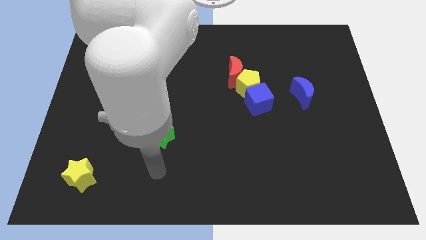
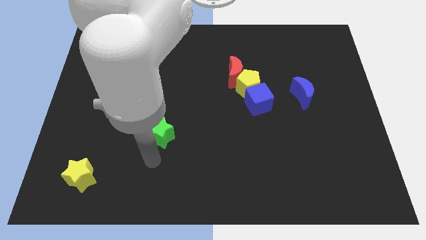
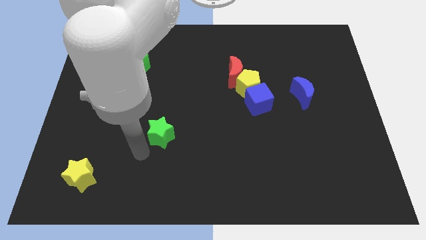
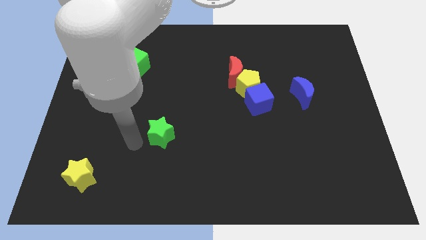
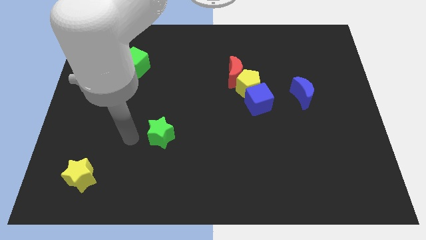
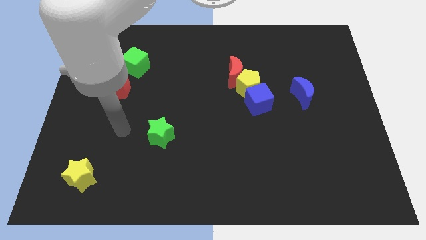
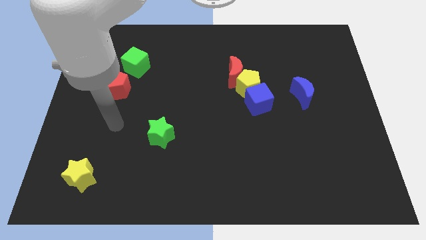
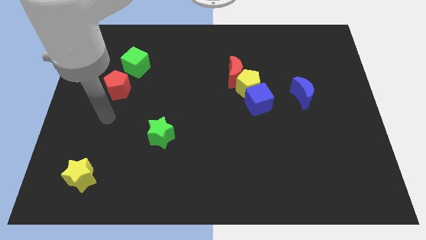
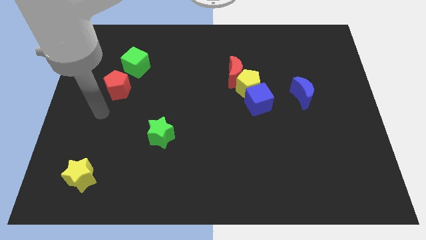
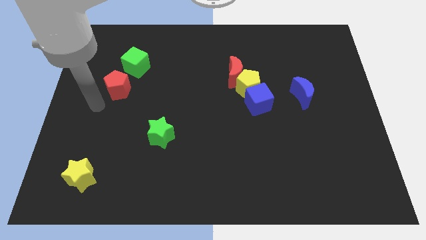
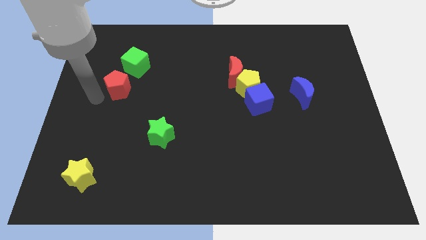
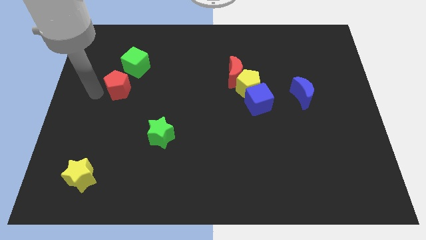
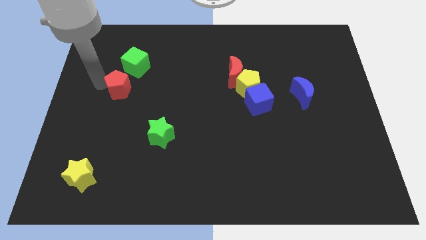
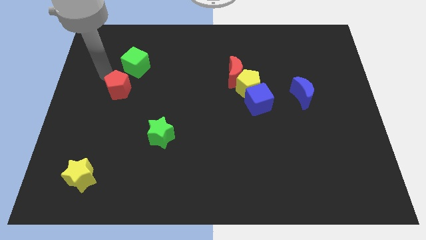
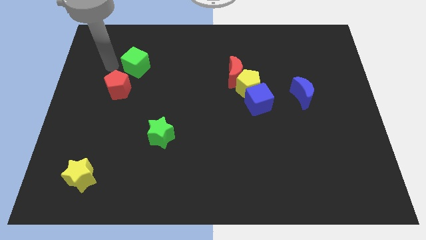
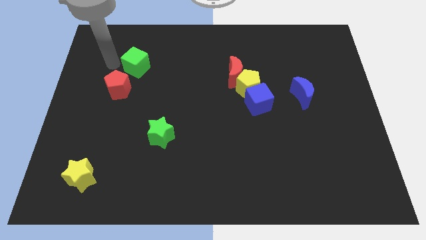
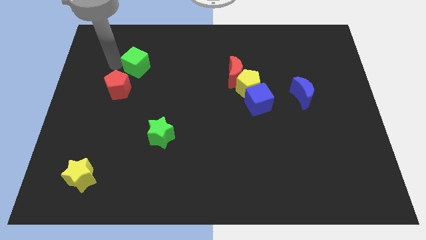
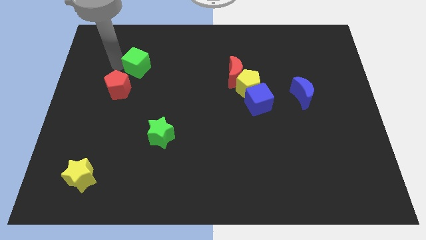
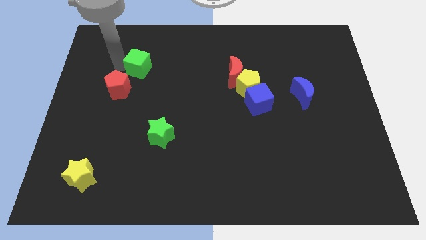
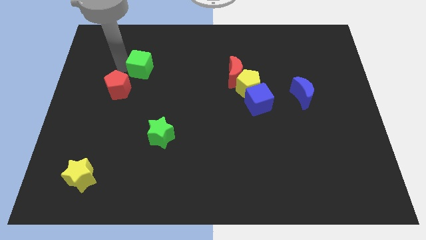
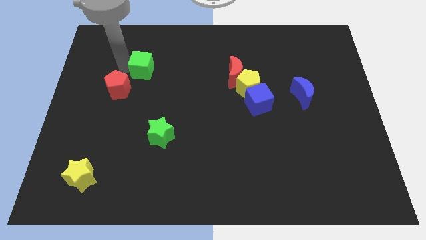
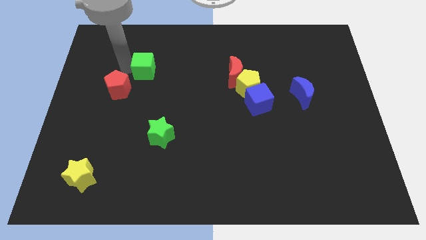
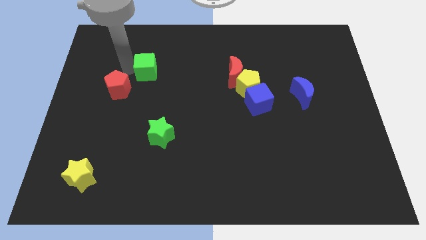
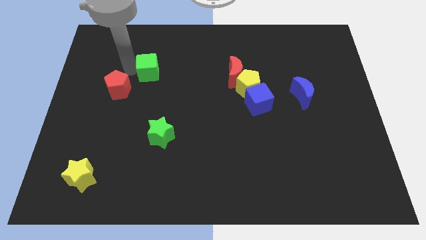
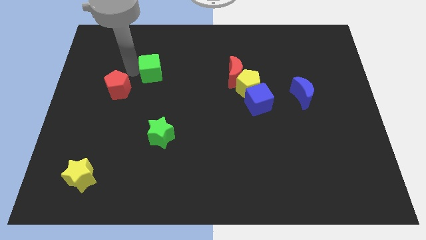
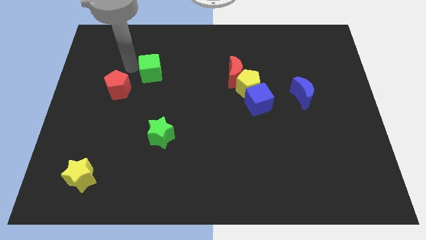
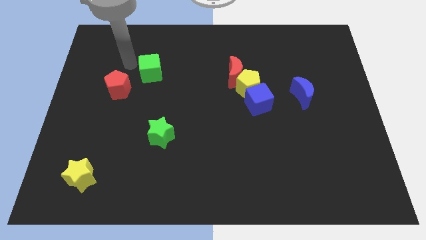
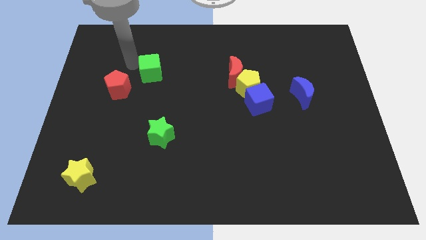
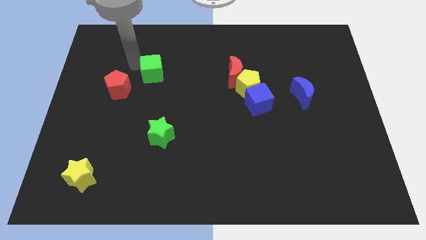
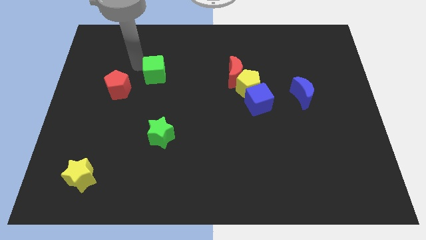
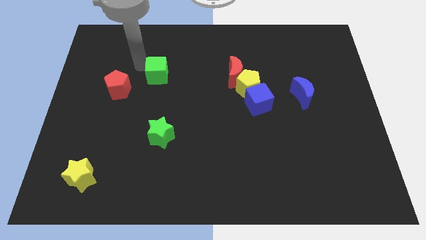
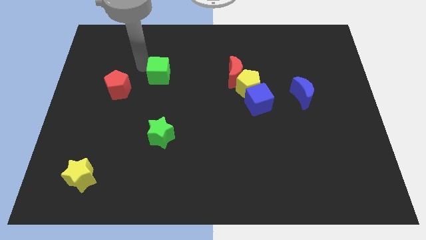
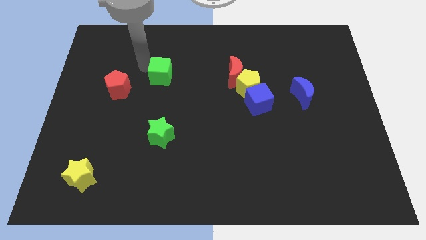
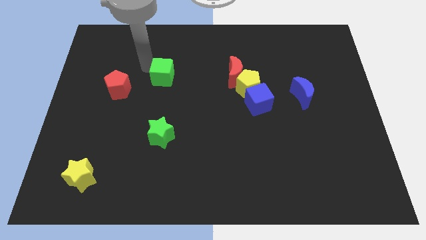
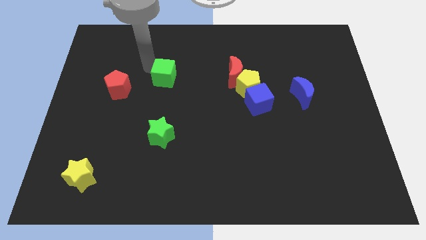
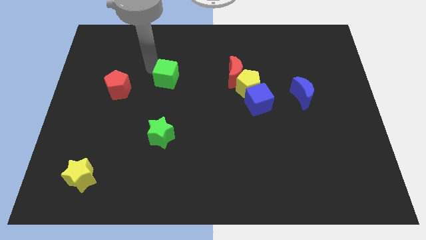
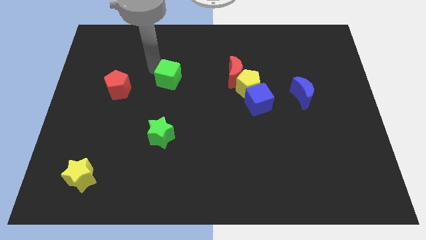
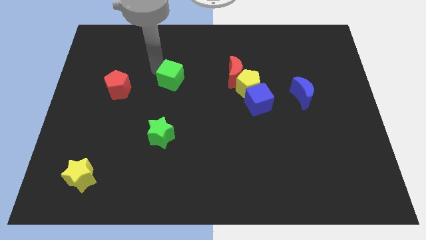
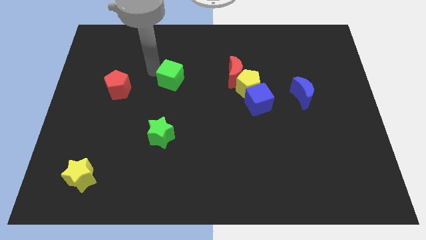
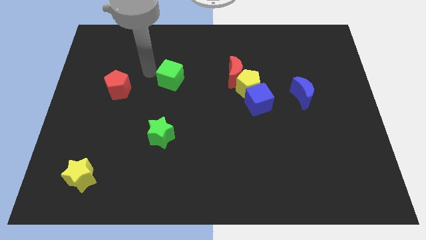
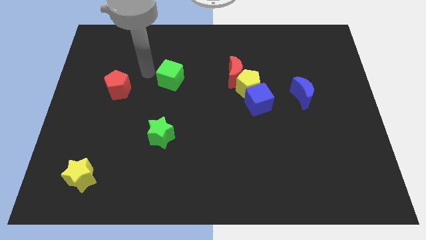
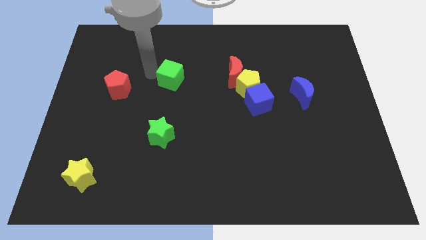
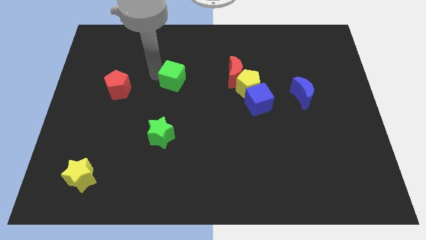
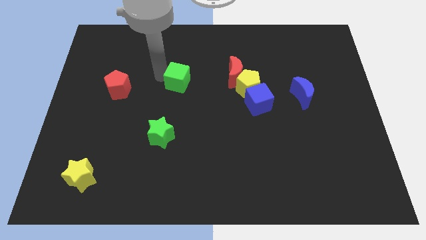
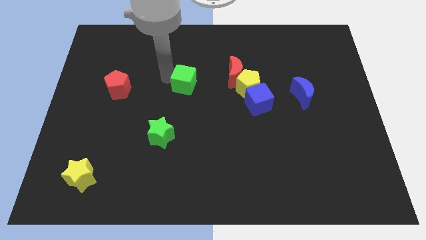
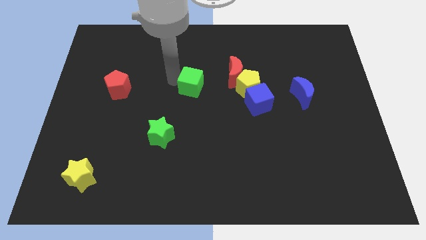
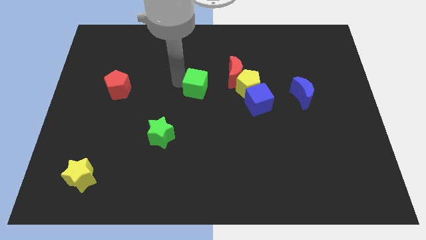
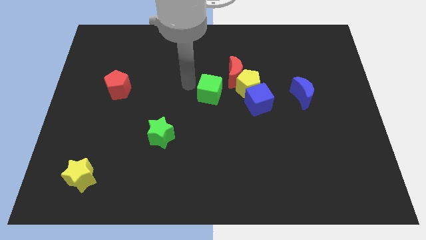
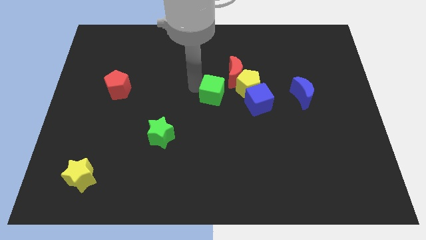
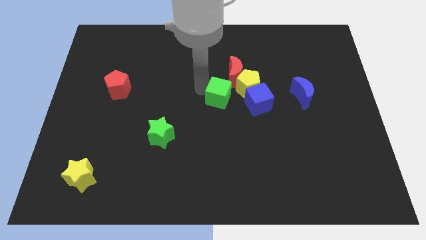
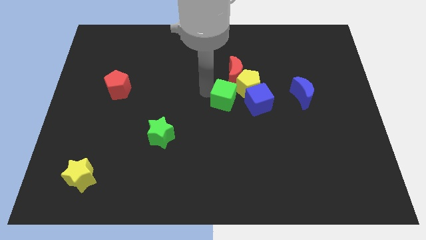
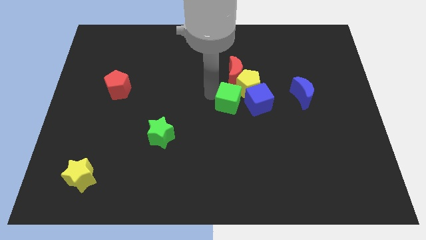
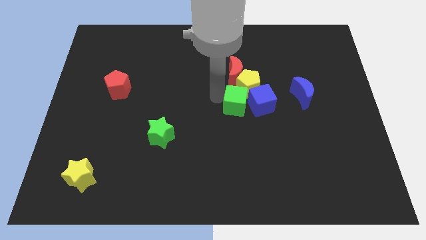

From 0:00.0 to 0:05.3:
put the green cube towards the blue cube

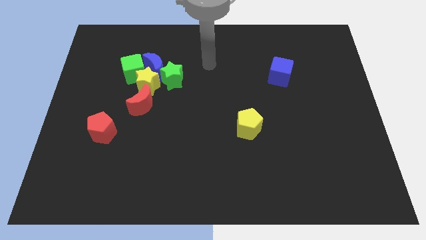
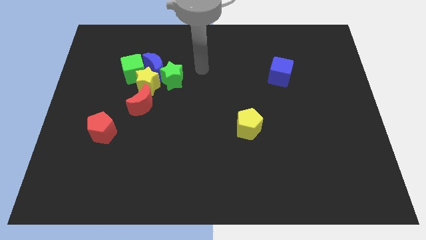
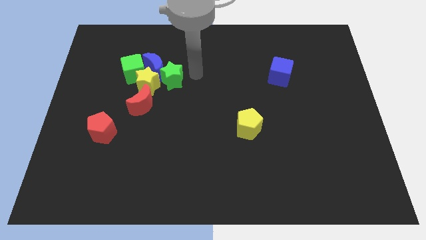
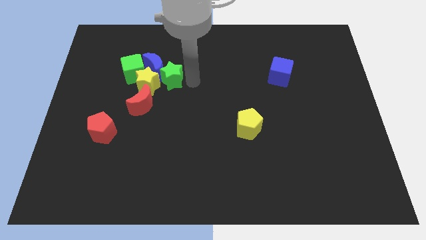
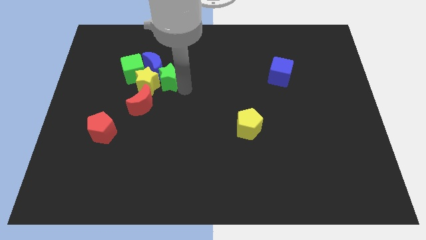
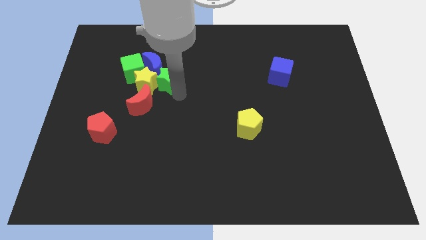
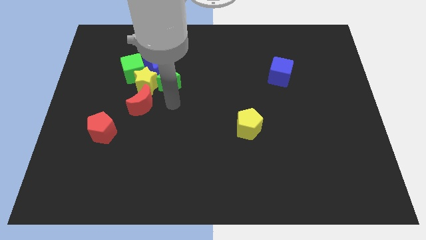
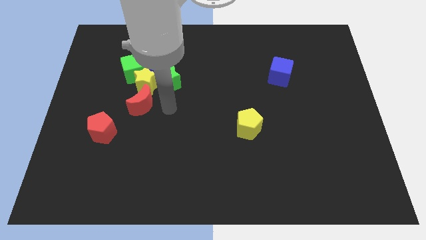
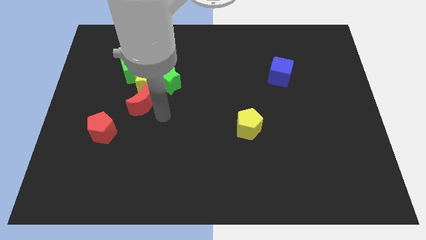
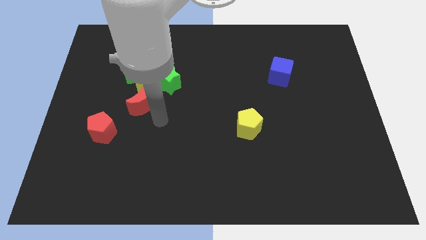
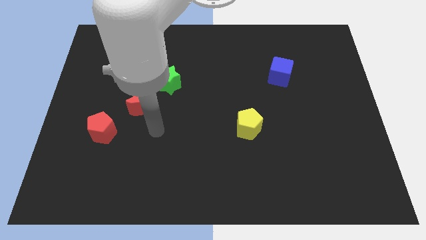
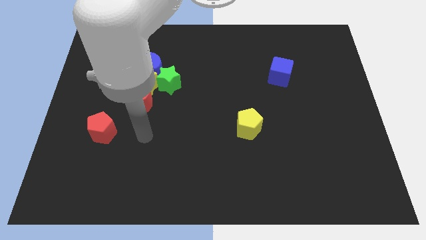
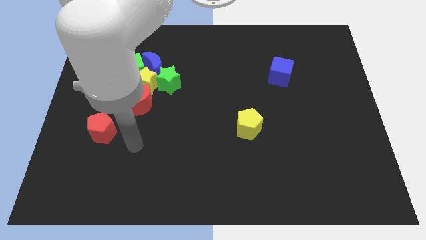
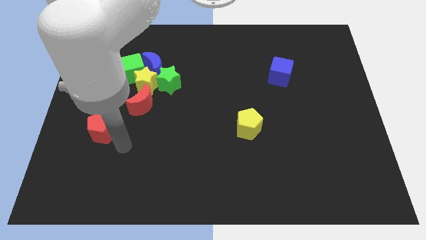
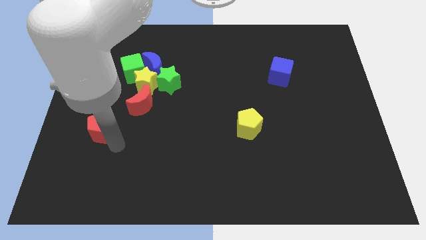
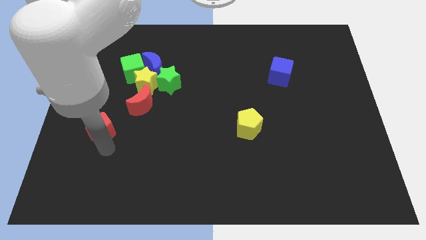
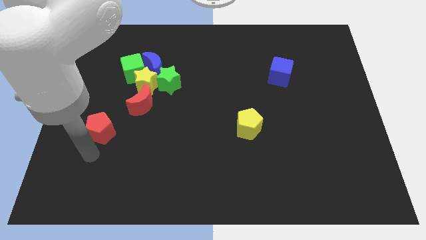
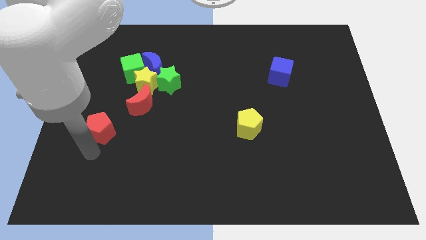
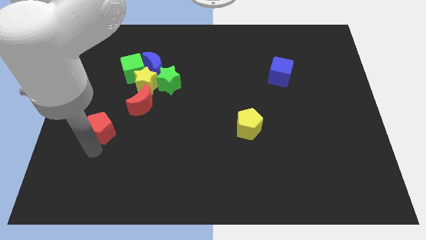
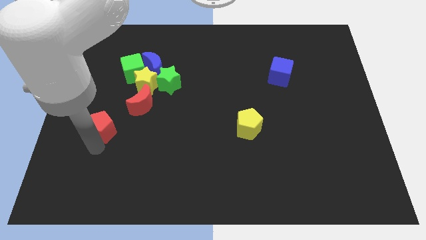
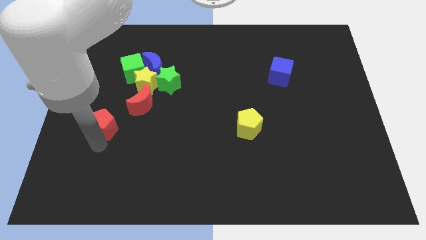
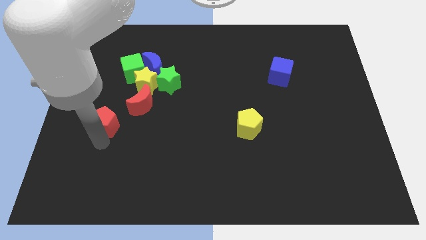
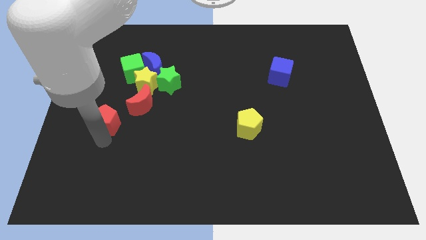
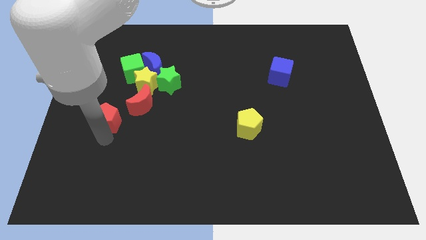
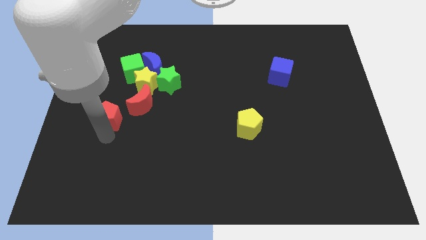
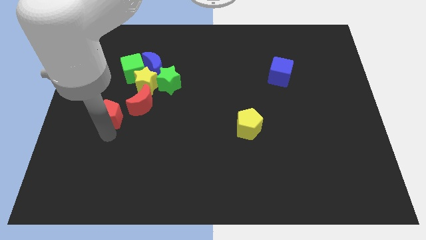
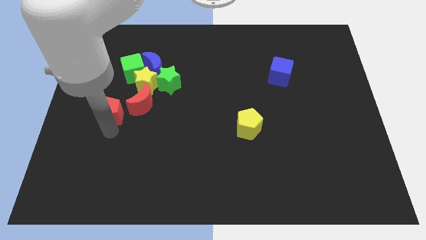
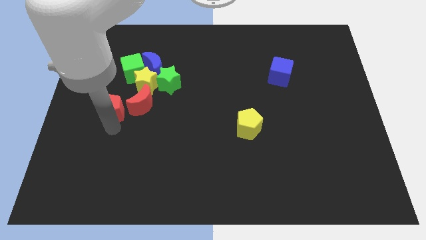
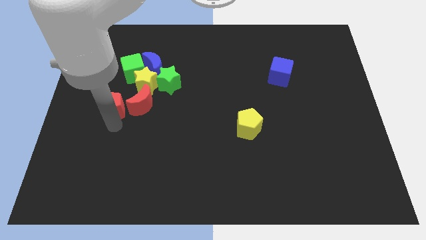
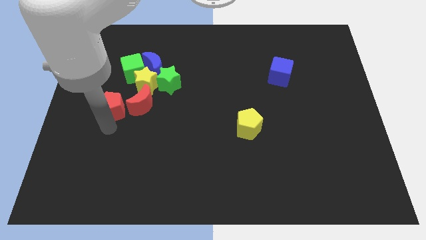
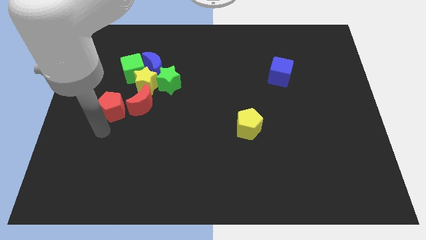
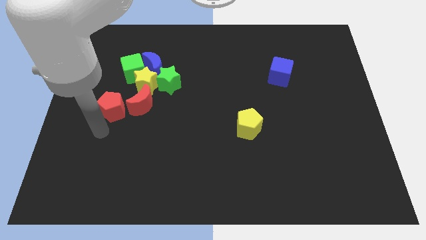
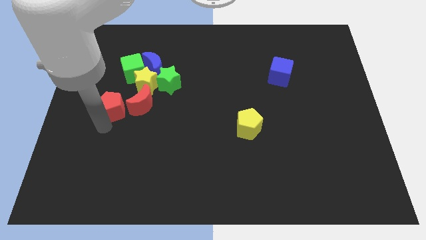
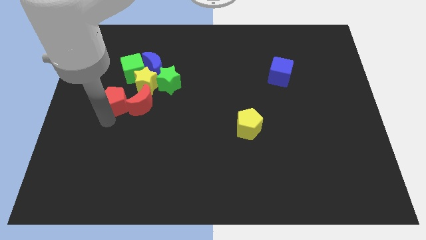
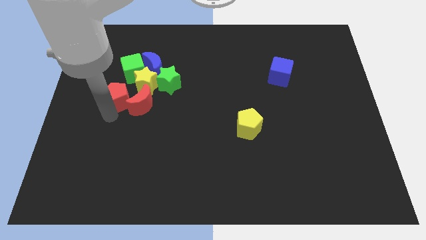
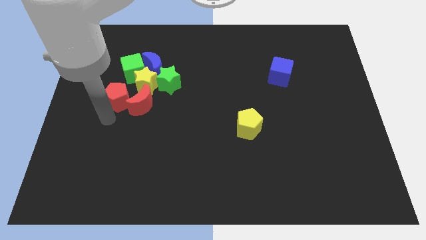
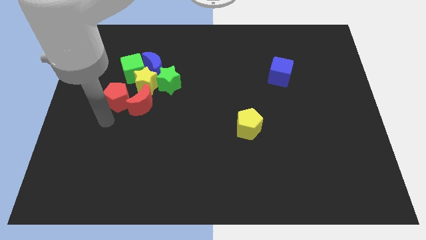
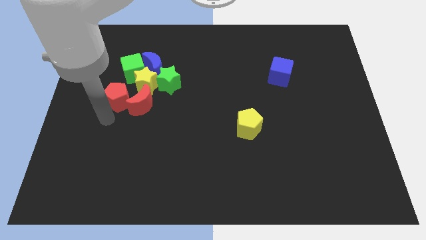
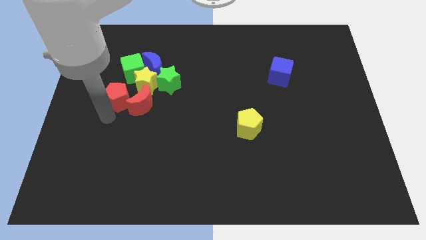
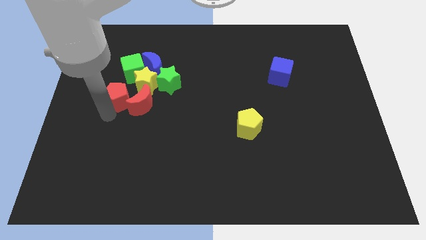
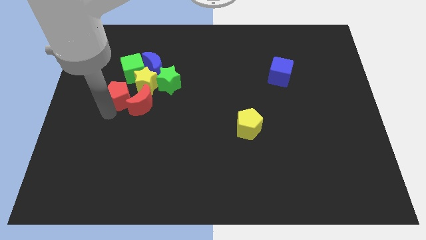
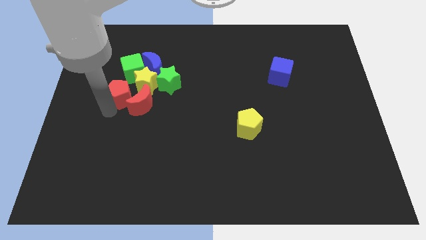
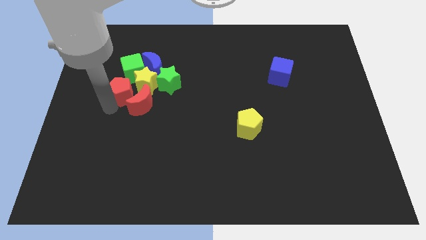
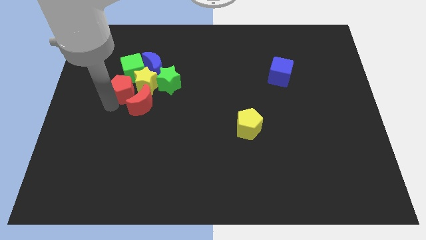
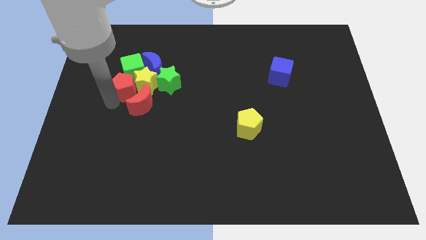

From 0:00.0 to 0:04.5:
put the red pentagon to the green cube
